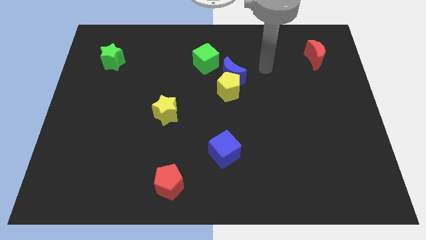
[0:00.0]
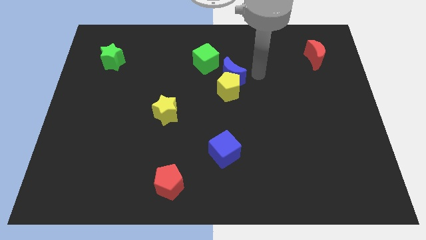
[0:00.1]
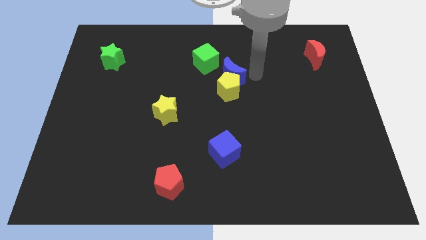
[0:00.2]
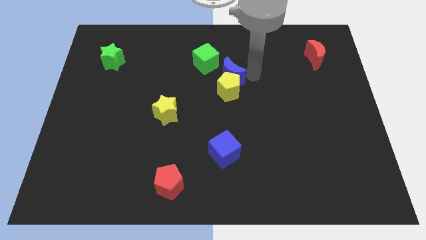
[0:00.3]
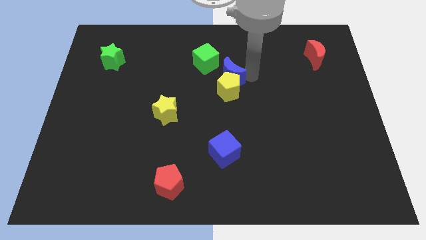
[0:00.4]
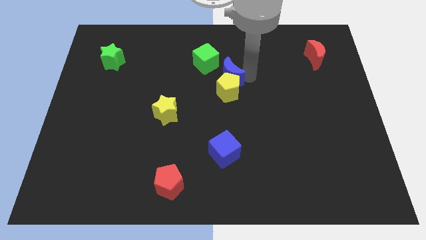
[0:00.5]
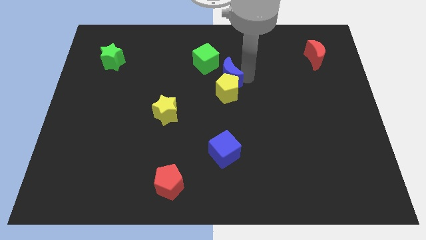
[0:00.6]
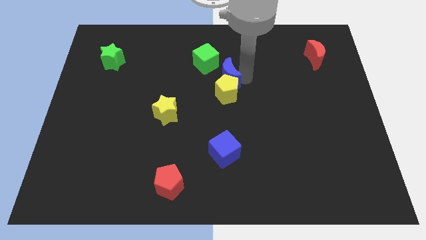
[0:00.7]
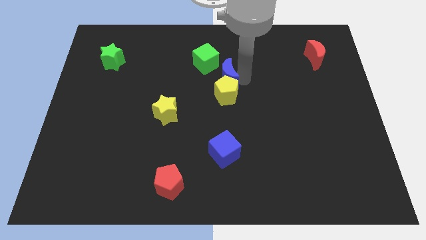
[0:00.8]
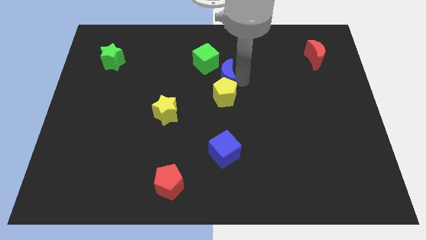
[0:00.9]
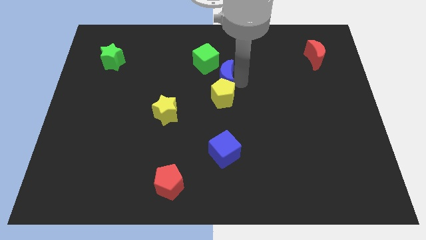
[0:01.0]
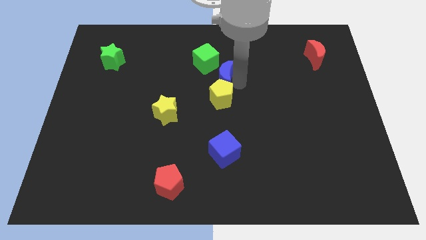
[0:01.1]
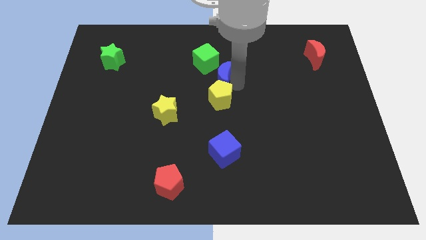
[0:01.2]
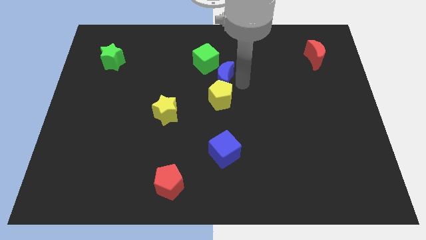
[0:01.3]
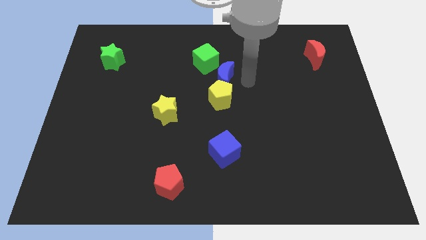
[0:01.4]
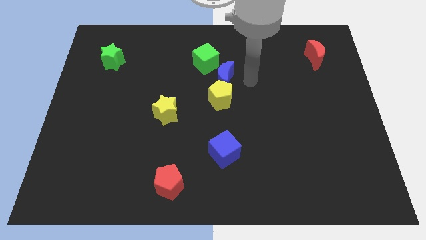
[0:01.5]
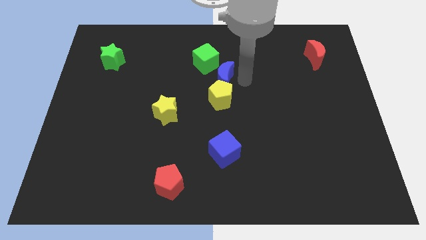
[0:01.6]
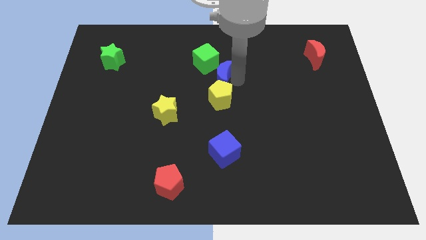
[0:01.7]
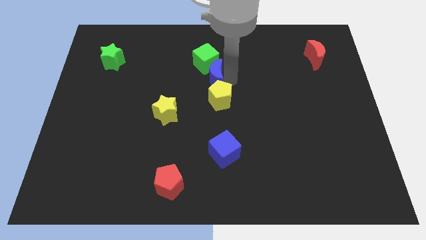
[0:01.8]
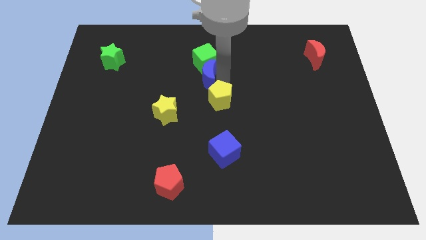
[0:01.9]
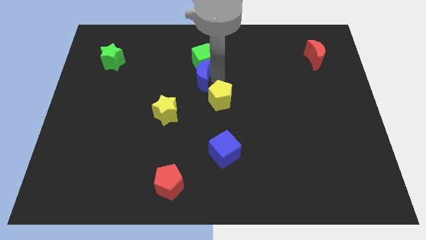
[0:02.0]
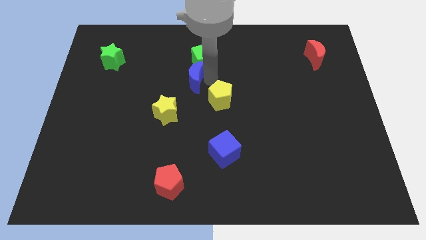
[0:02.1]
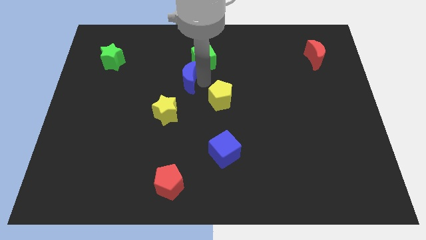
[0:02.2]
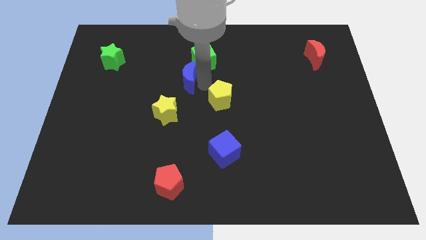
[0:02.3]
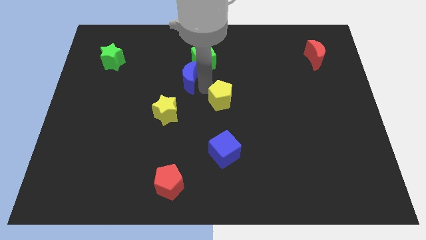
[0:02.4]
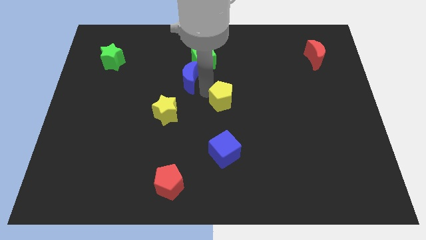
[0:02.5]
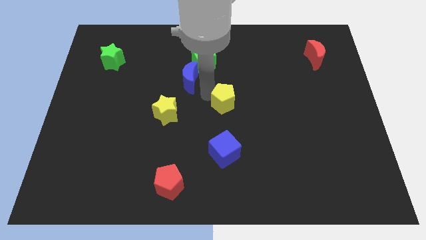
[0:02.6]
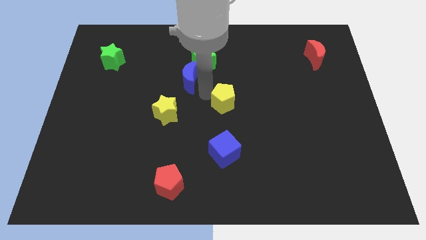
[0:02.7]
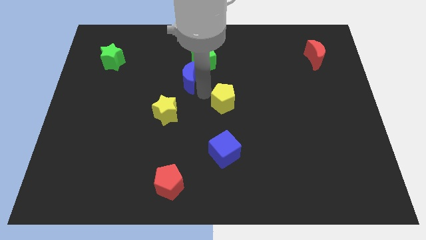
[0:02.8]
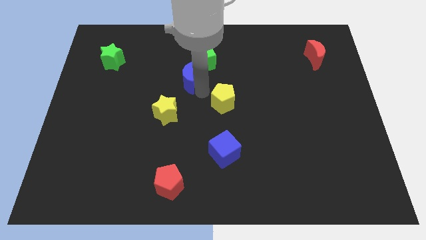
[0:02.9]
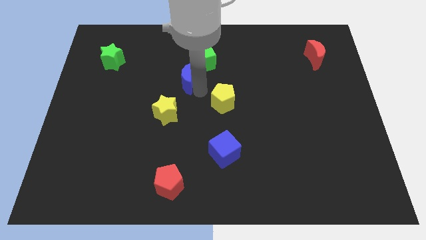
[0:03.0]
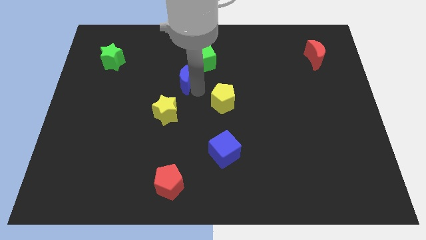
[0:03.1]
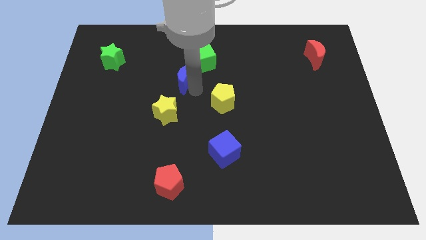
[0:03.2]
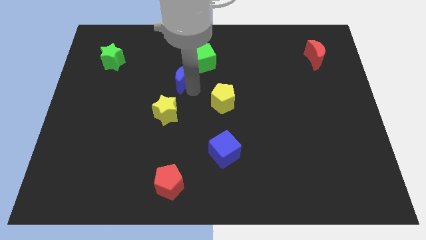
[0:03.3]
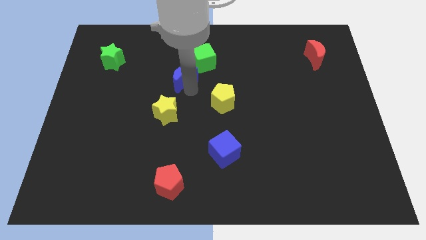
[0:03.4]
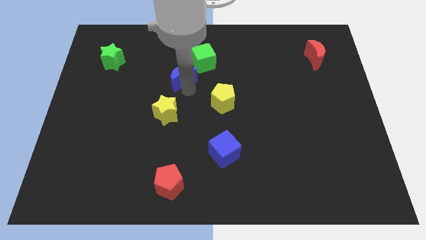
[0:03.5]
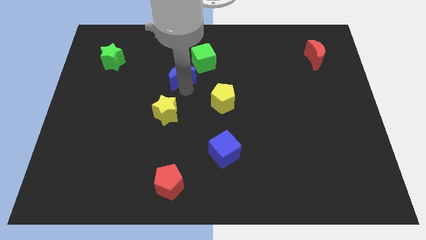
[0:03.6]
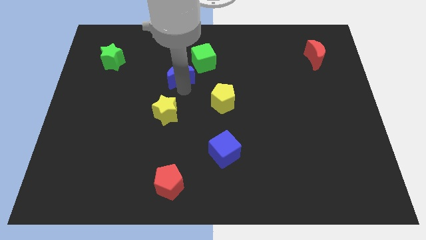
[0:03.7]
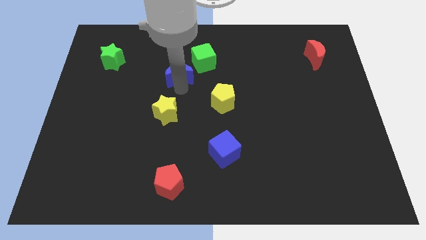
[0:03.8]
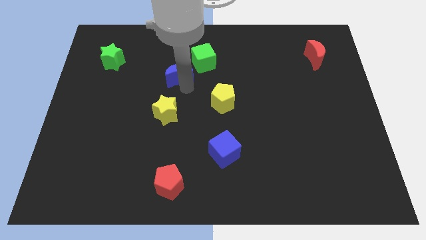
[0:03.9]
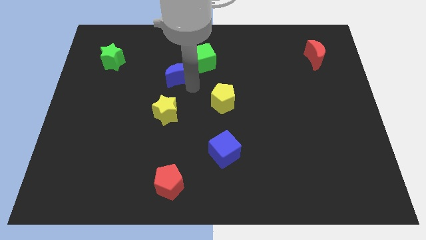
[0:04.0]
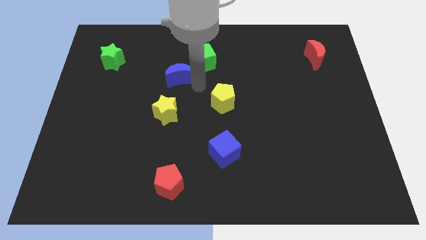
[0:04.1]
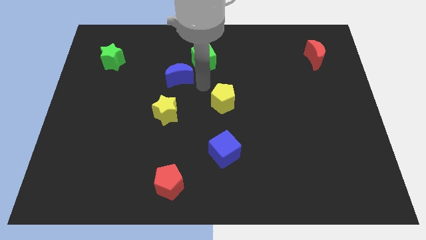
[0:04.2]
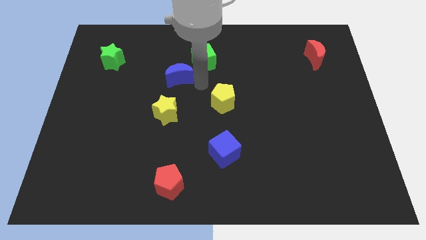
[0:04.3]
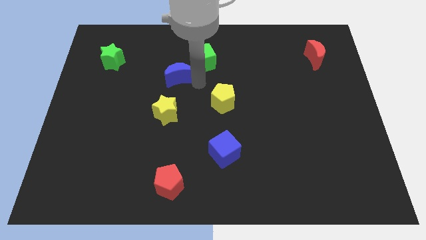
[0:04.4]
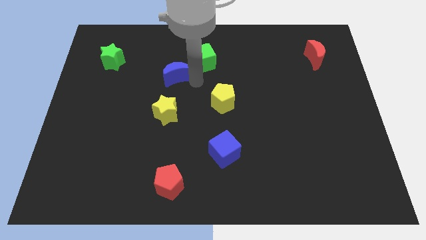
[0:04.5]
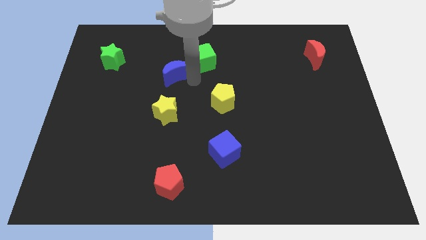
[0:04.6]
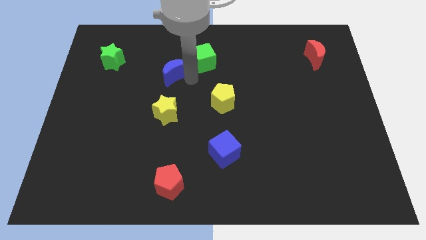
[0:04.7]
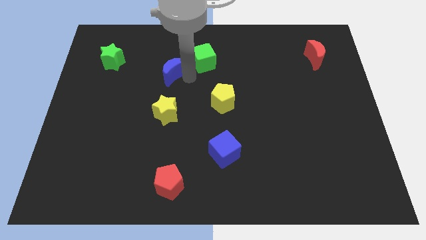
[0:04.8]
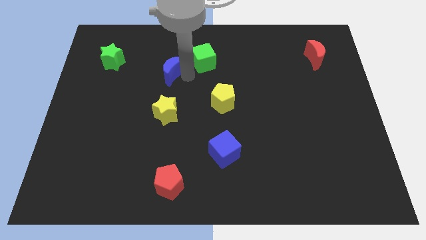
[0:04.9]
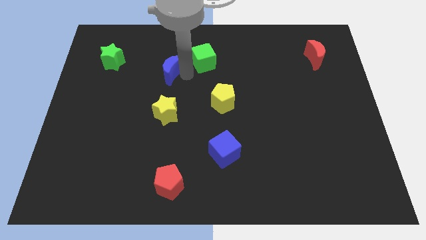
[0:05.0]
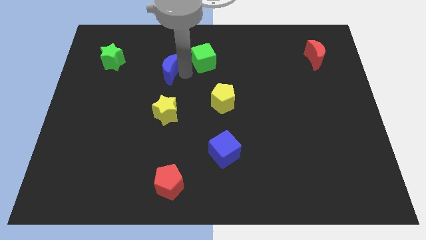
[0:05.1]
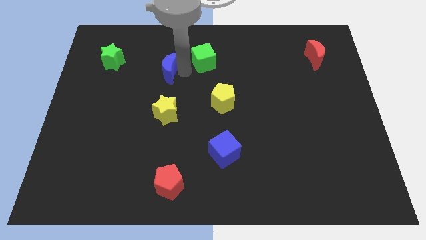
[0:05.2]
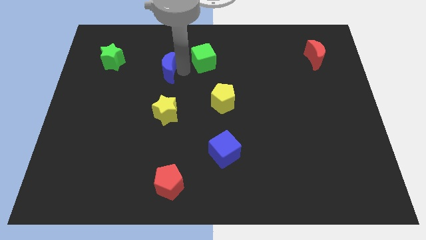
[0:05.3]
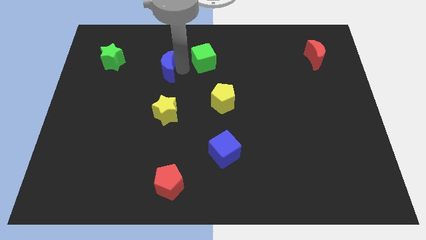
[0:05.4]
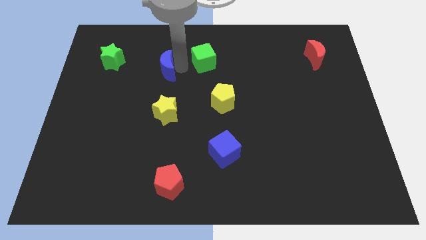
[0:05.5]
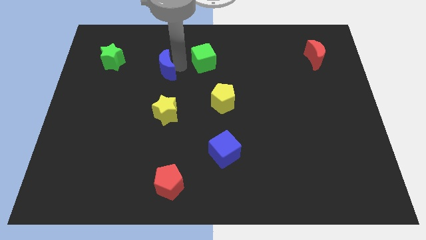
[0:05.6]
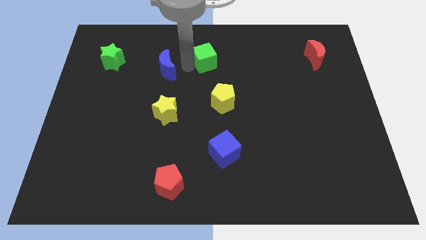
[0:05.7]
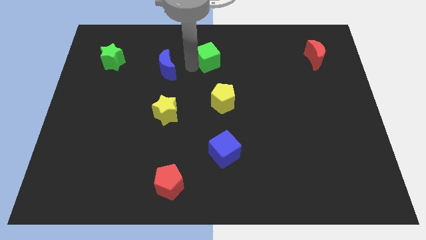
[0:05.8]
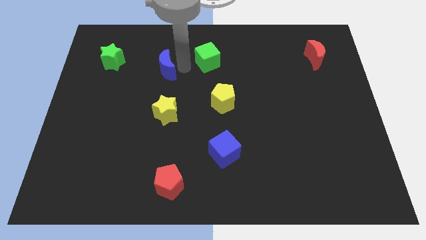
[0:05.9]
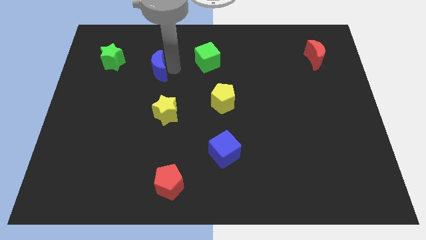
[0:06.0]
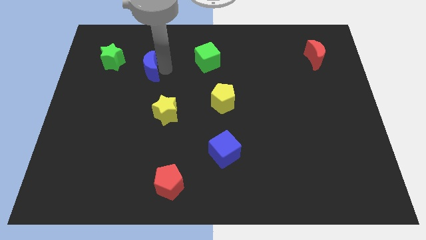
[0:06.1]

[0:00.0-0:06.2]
slide the blue moon to the left

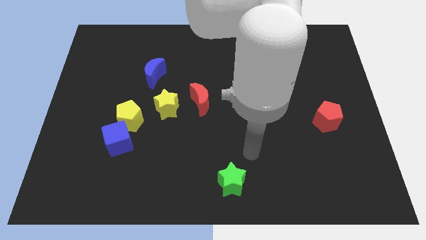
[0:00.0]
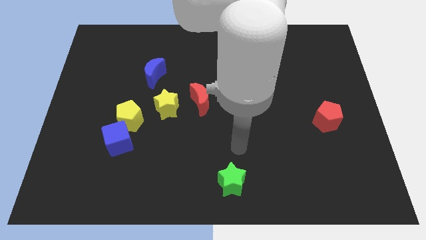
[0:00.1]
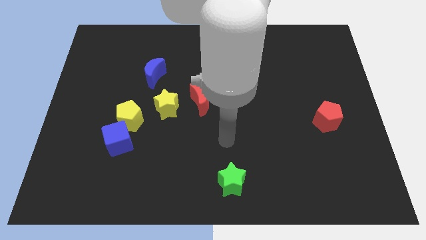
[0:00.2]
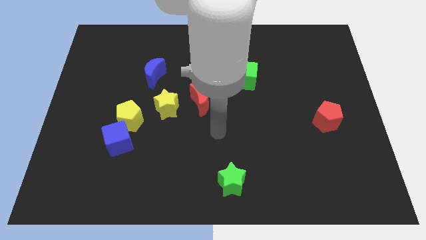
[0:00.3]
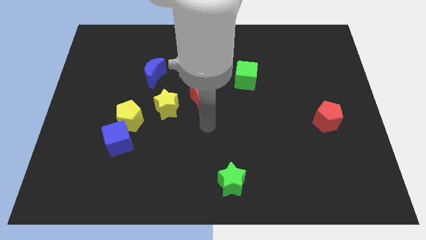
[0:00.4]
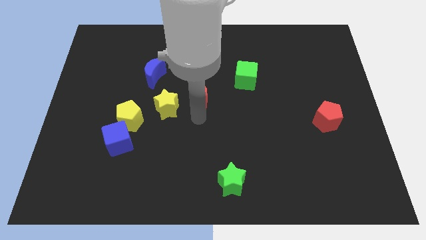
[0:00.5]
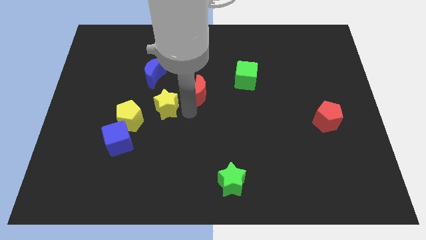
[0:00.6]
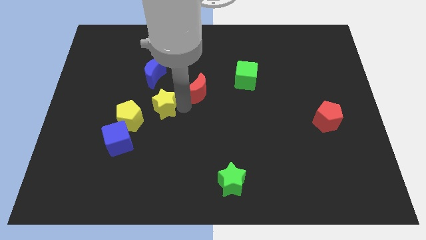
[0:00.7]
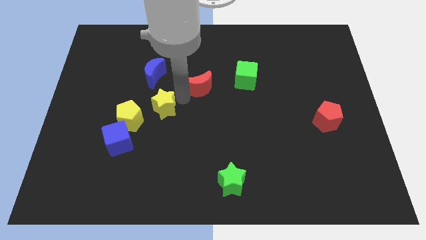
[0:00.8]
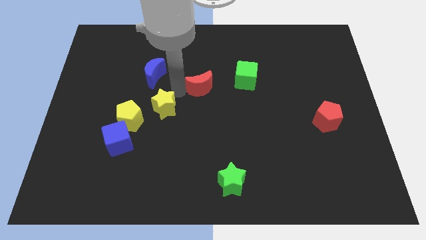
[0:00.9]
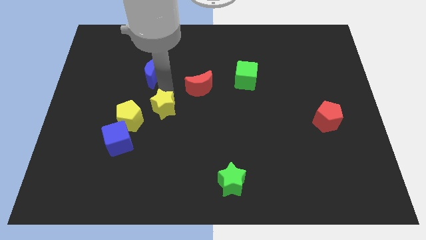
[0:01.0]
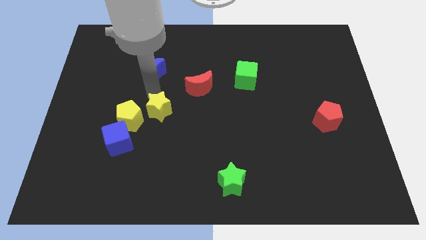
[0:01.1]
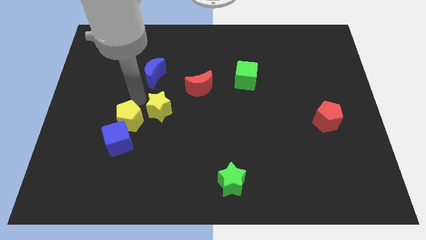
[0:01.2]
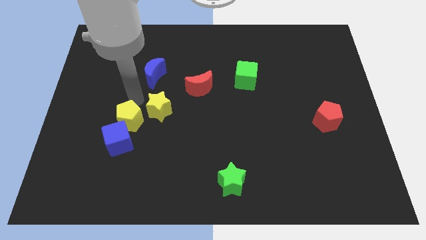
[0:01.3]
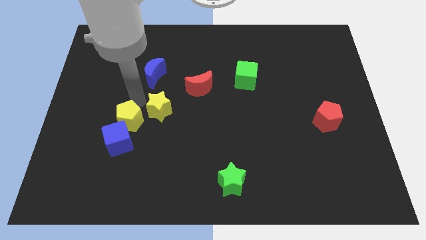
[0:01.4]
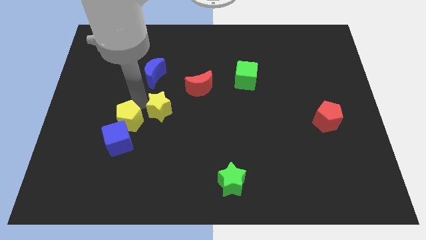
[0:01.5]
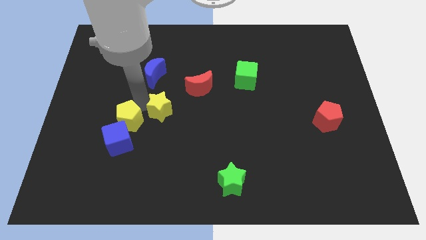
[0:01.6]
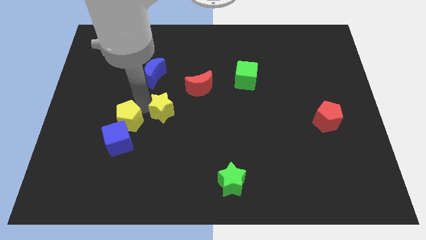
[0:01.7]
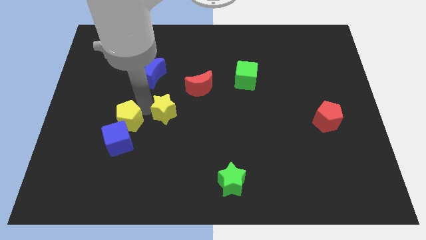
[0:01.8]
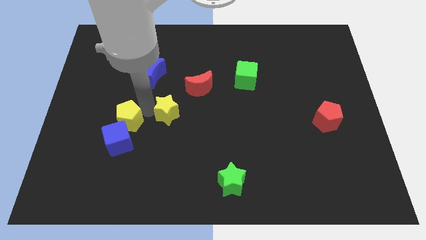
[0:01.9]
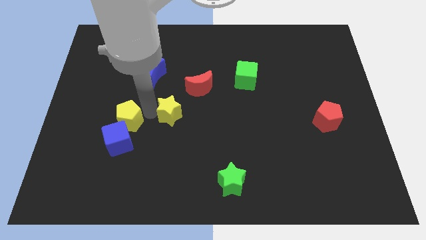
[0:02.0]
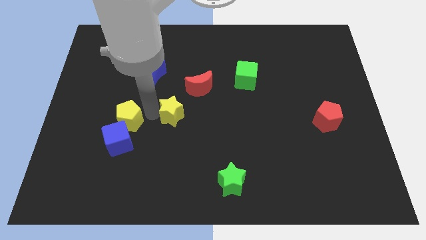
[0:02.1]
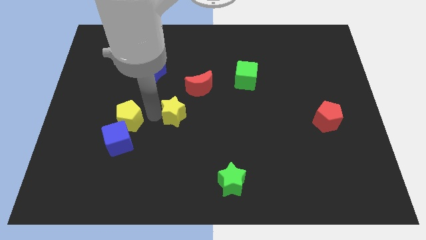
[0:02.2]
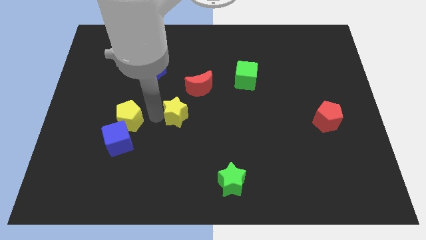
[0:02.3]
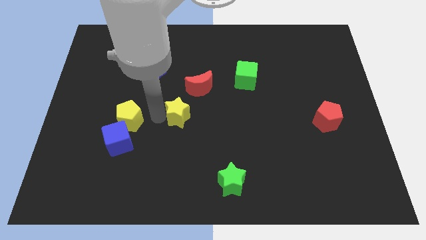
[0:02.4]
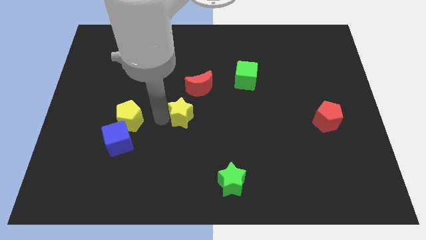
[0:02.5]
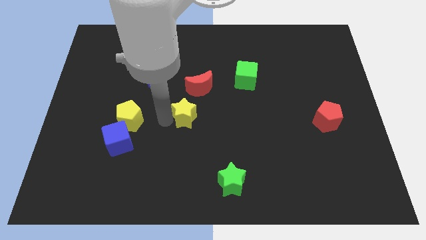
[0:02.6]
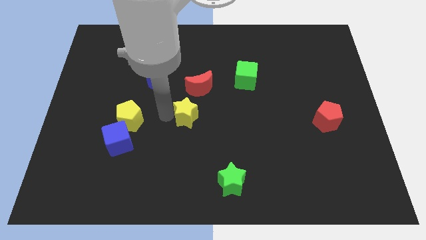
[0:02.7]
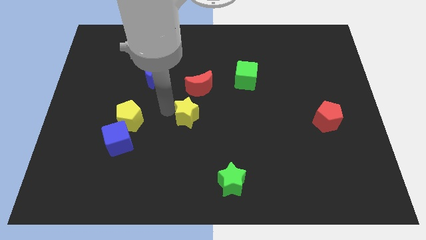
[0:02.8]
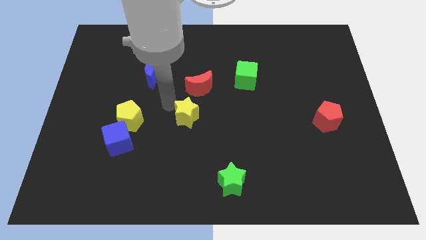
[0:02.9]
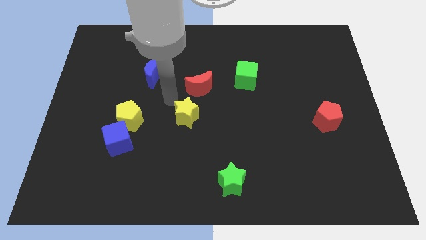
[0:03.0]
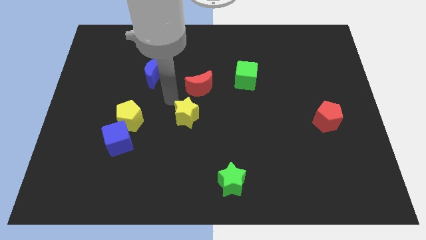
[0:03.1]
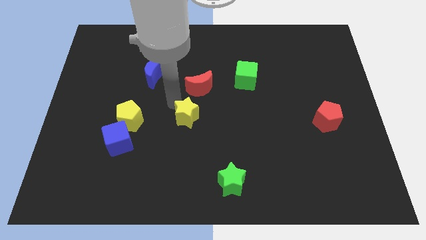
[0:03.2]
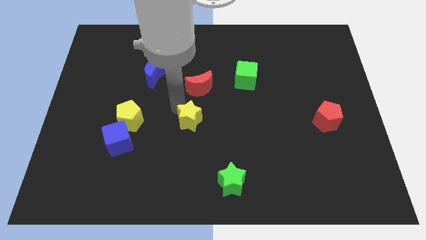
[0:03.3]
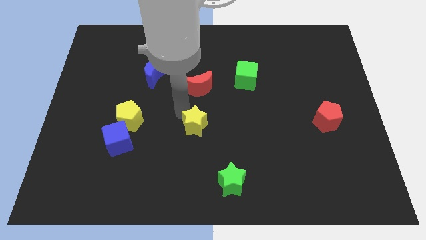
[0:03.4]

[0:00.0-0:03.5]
slide the yellow star a little bit down and then to the right
